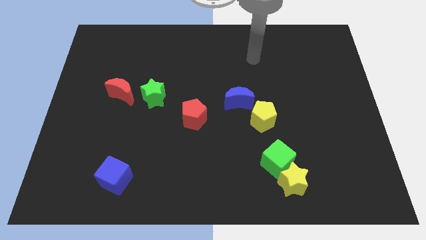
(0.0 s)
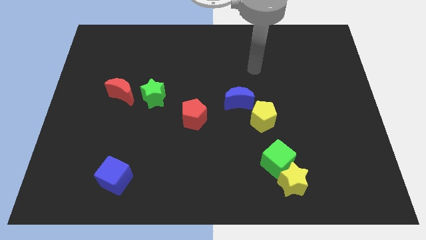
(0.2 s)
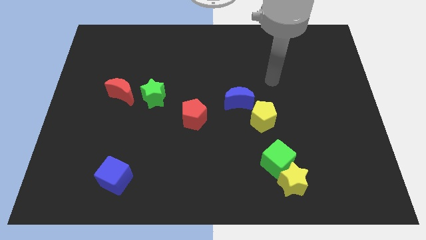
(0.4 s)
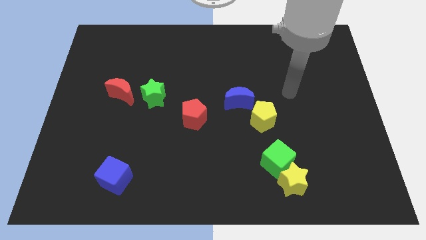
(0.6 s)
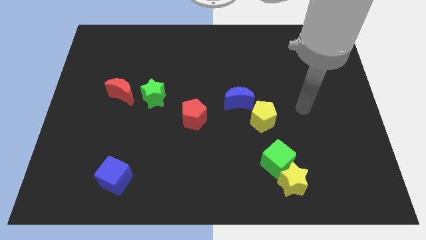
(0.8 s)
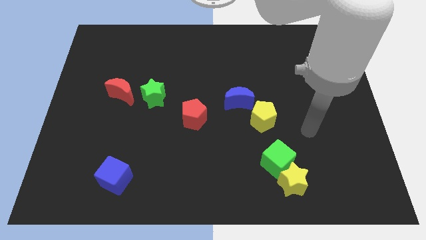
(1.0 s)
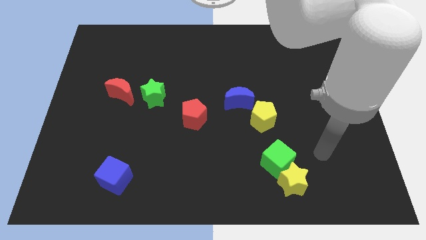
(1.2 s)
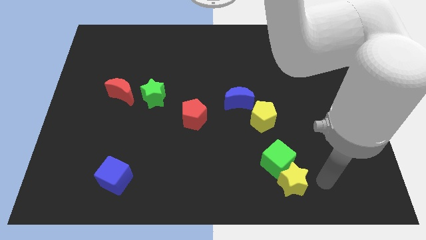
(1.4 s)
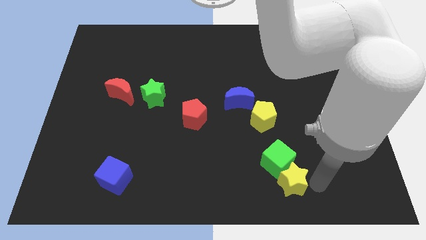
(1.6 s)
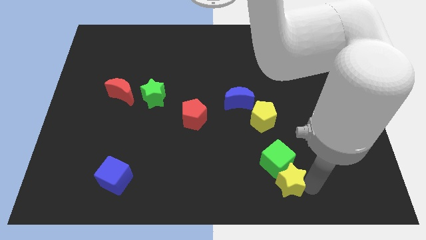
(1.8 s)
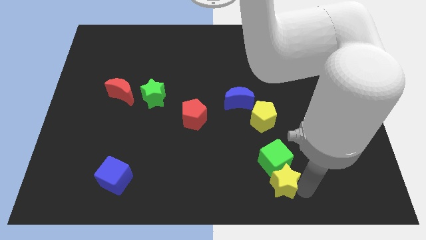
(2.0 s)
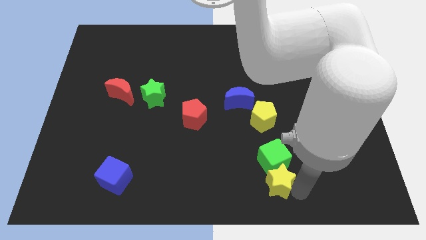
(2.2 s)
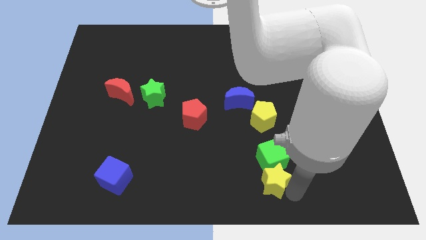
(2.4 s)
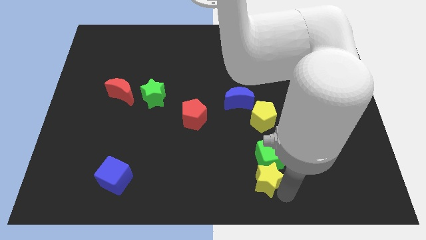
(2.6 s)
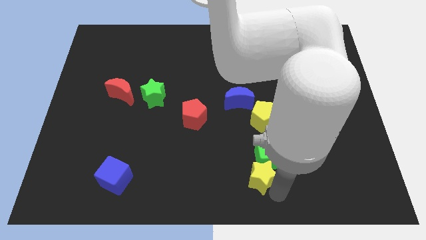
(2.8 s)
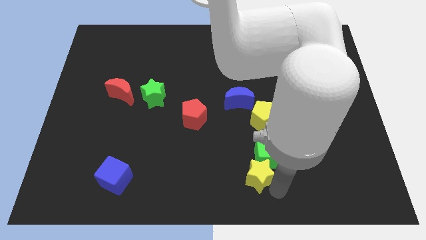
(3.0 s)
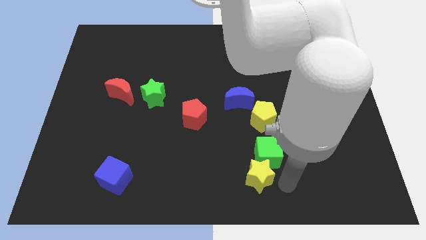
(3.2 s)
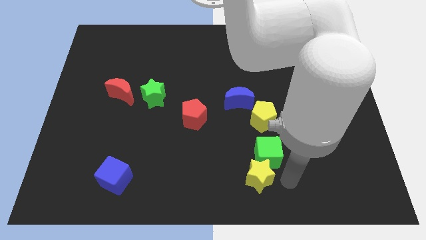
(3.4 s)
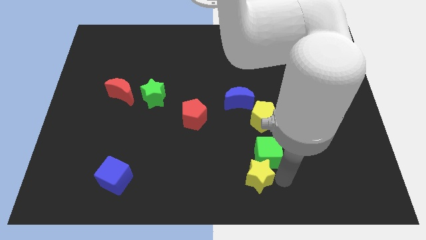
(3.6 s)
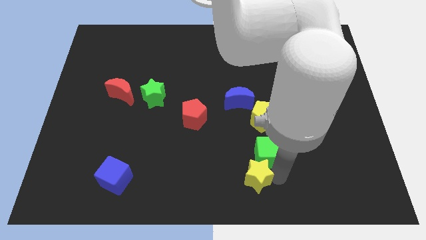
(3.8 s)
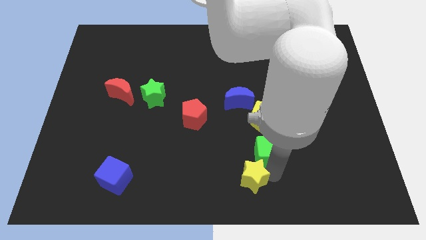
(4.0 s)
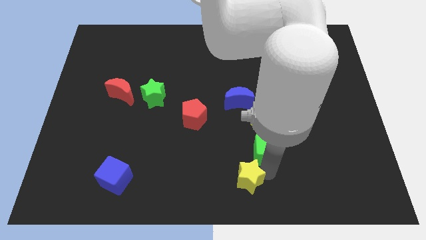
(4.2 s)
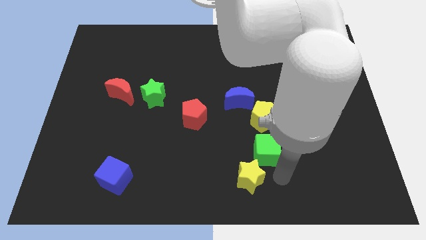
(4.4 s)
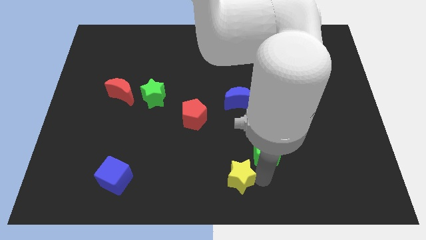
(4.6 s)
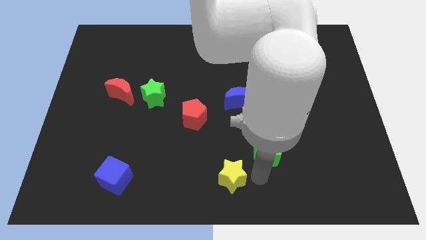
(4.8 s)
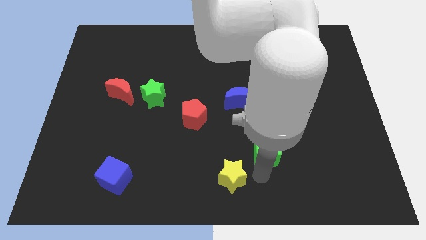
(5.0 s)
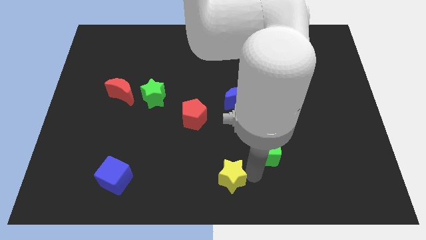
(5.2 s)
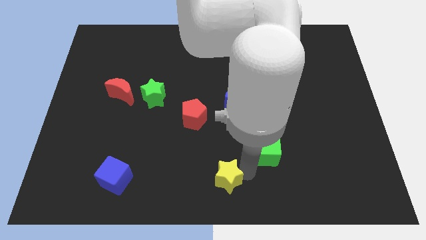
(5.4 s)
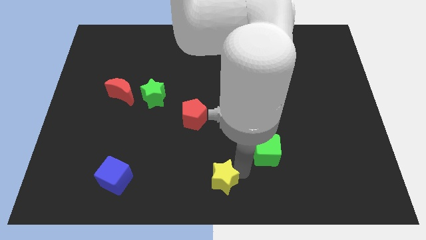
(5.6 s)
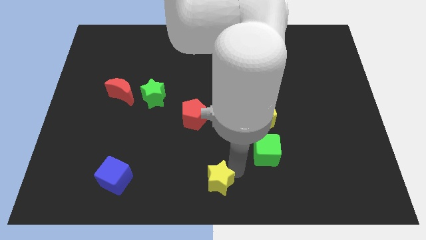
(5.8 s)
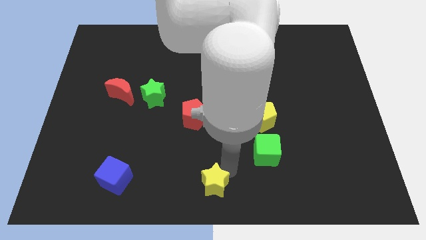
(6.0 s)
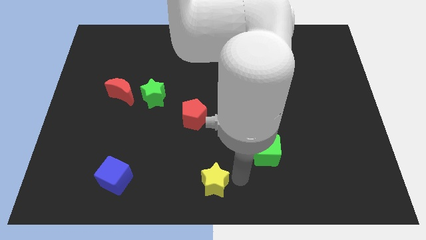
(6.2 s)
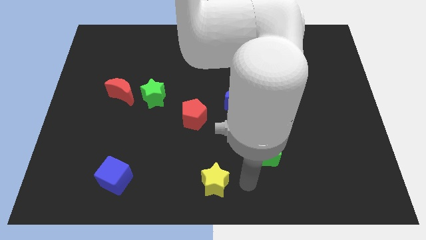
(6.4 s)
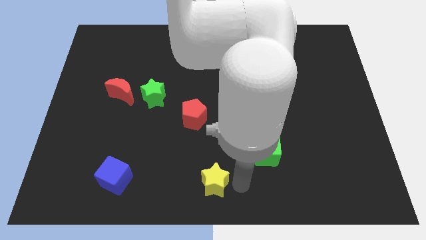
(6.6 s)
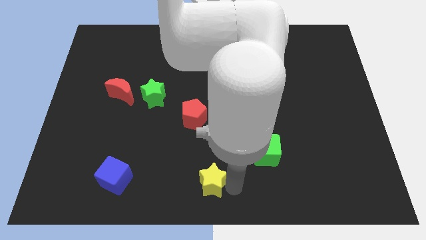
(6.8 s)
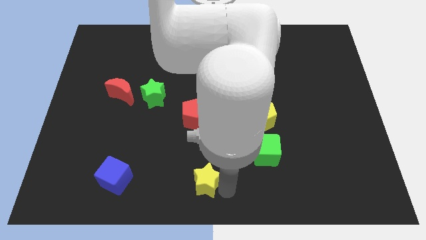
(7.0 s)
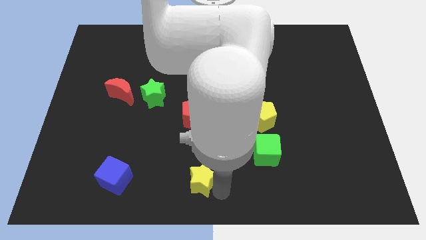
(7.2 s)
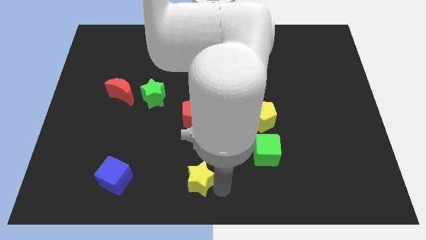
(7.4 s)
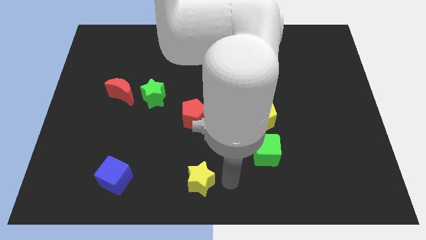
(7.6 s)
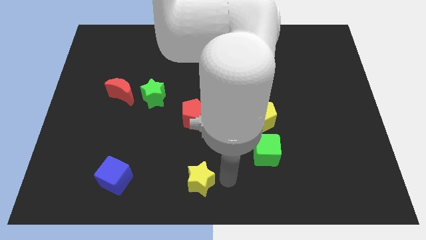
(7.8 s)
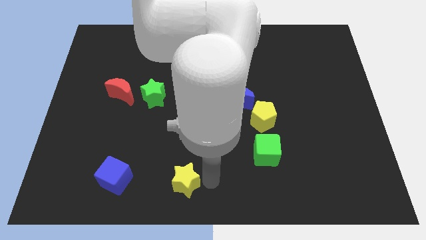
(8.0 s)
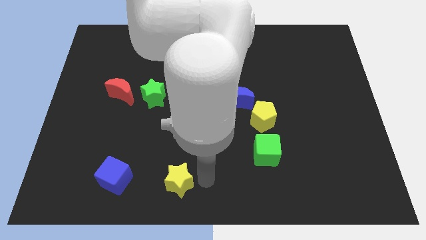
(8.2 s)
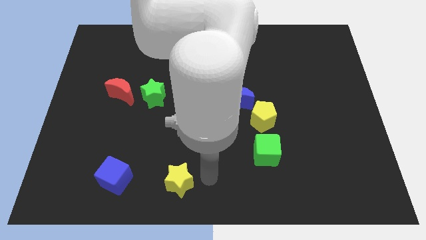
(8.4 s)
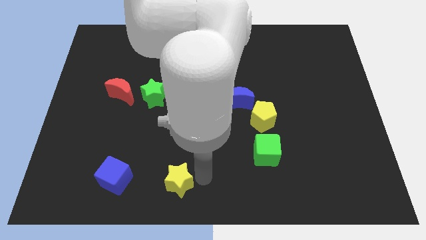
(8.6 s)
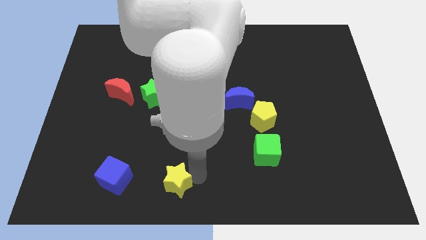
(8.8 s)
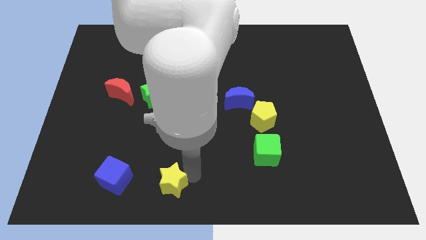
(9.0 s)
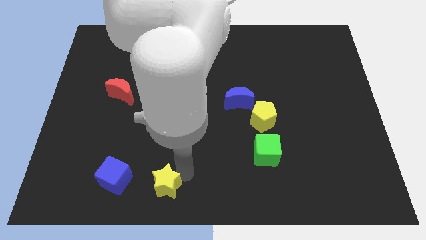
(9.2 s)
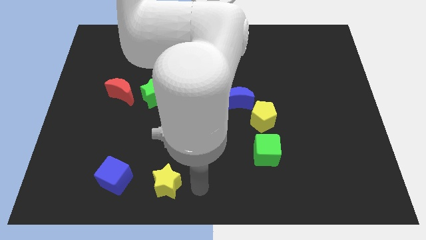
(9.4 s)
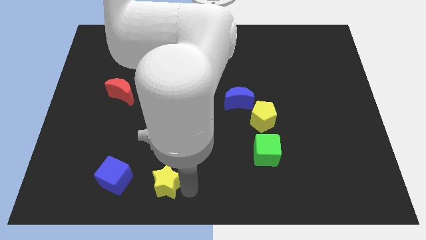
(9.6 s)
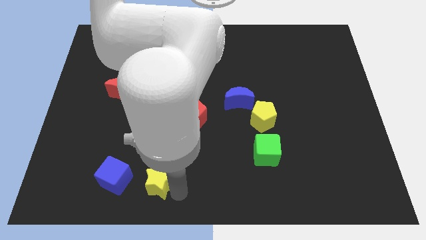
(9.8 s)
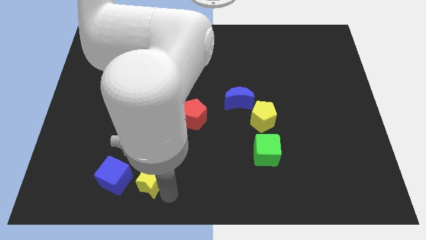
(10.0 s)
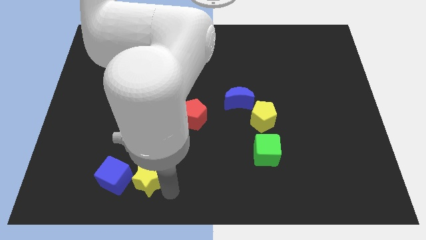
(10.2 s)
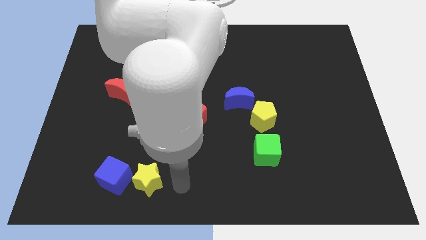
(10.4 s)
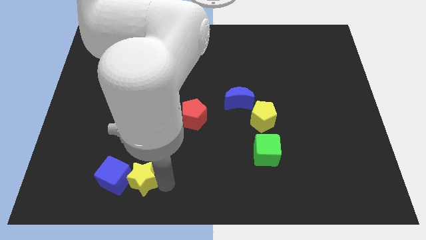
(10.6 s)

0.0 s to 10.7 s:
push the yellow star close to the blue cube

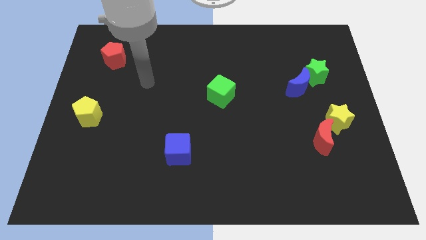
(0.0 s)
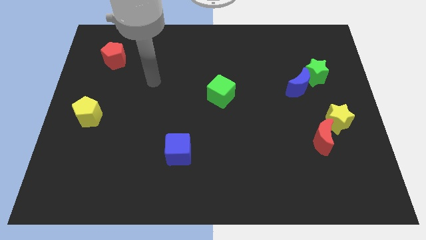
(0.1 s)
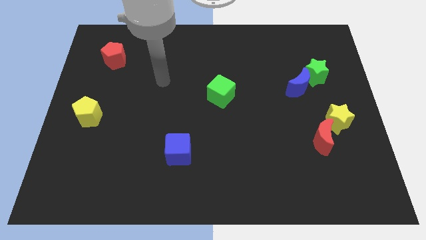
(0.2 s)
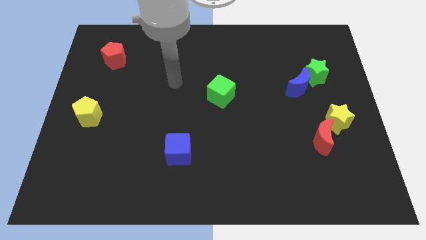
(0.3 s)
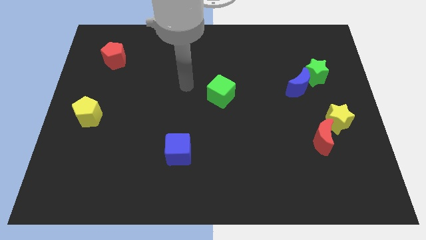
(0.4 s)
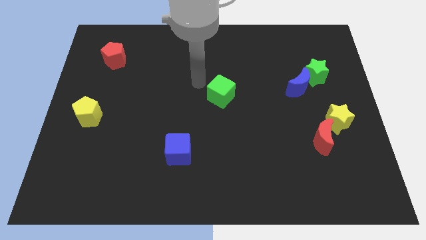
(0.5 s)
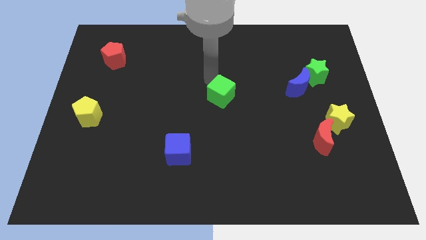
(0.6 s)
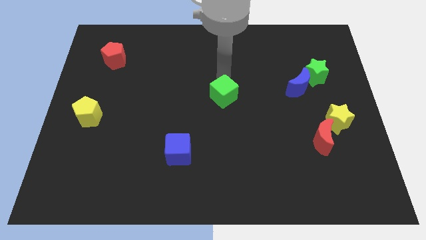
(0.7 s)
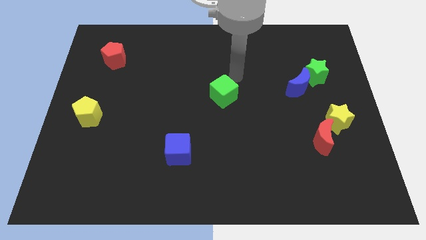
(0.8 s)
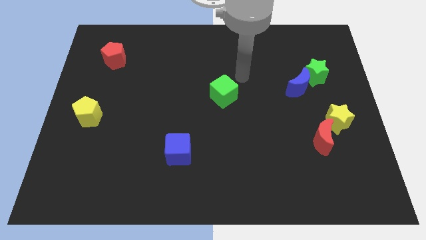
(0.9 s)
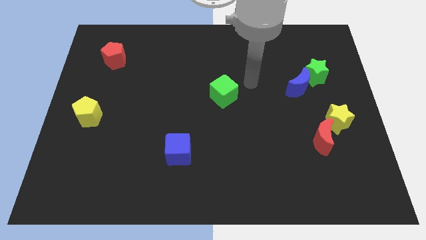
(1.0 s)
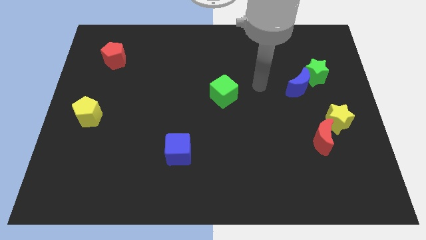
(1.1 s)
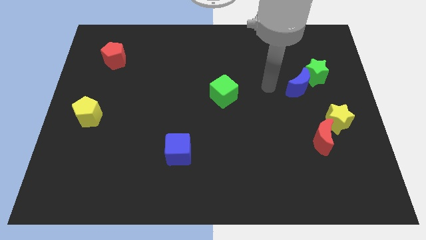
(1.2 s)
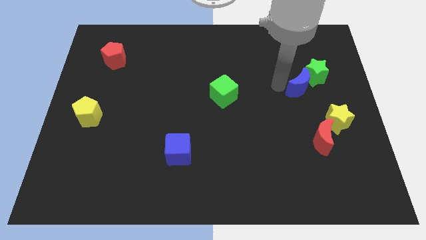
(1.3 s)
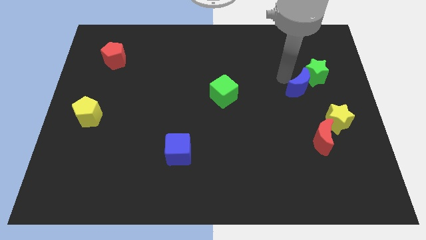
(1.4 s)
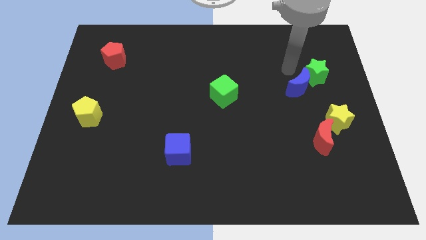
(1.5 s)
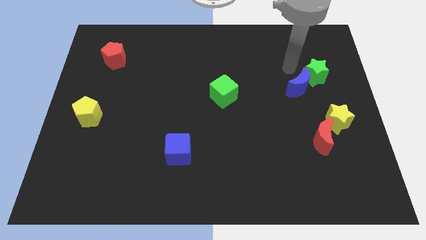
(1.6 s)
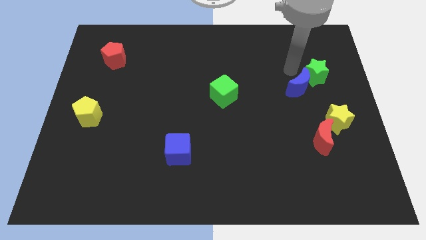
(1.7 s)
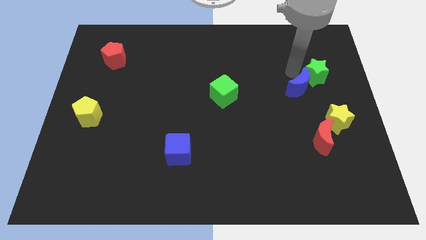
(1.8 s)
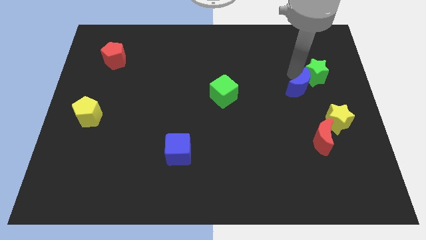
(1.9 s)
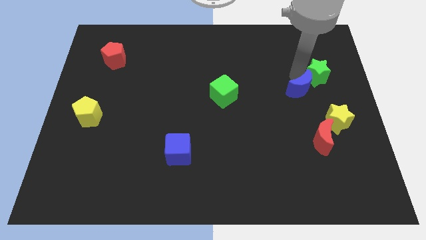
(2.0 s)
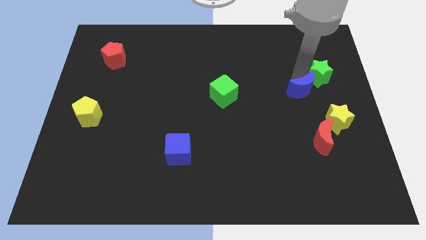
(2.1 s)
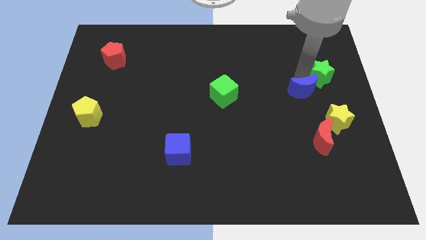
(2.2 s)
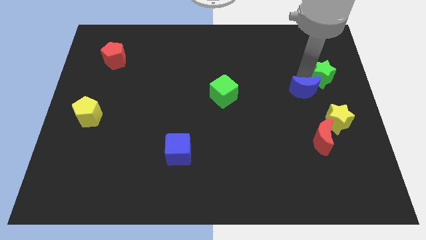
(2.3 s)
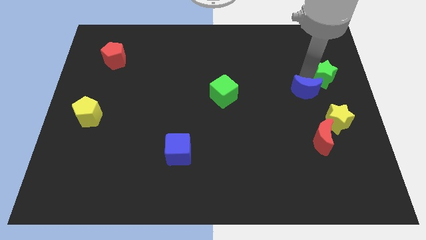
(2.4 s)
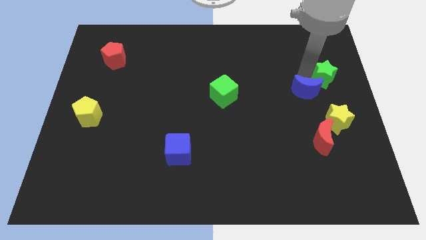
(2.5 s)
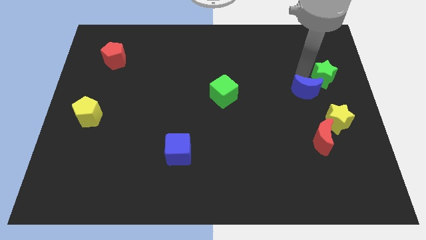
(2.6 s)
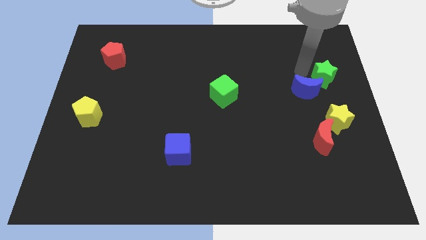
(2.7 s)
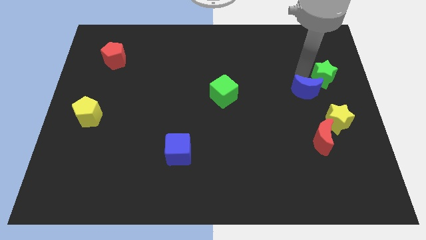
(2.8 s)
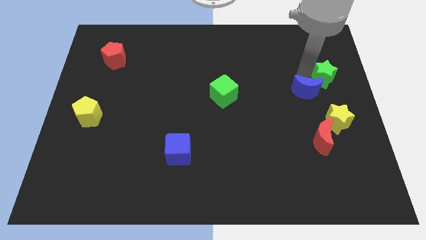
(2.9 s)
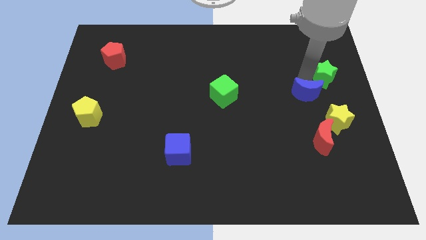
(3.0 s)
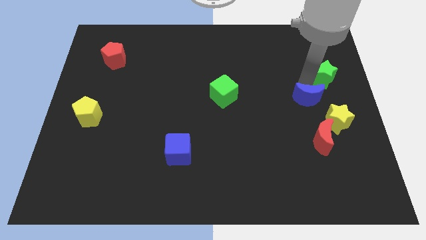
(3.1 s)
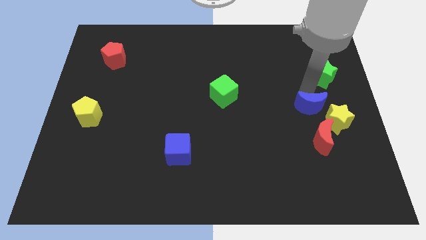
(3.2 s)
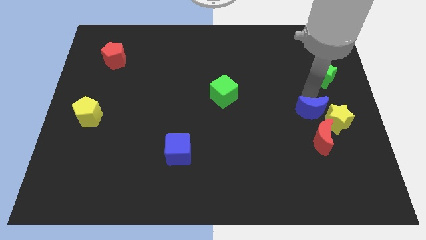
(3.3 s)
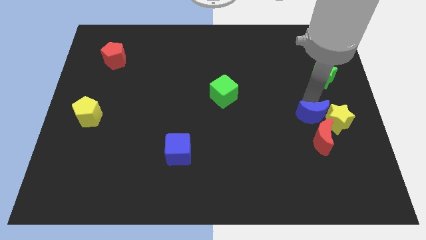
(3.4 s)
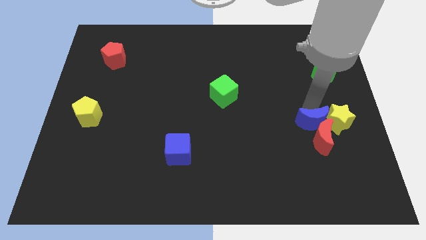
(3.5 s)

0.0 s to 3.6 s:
push the blue moon to the red moon
